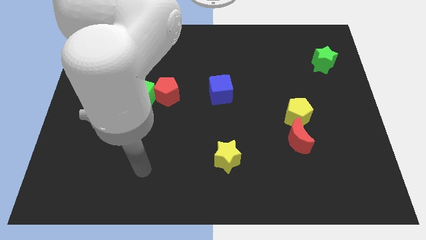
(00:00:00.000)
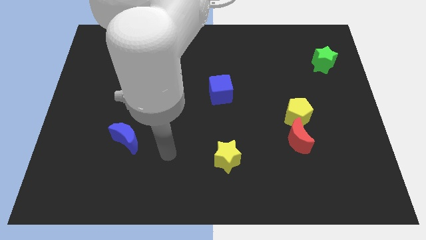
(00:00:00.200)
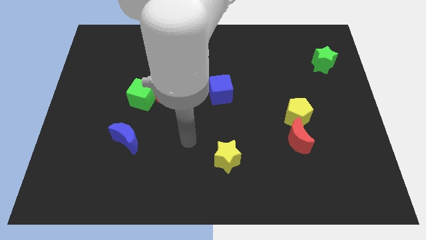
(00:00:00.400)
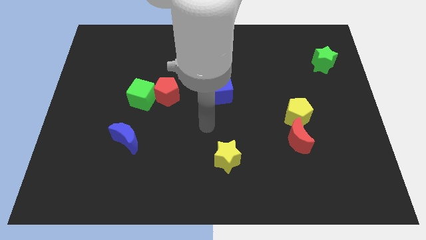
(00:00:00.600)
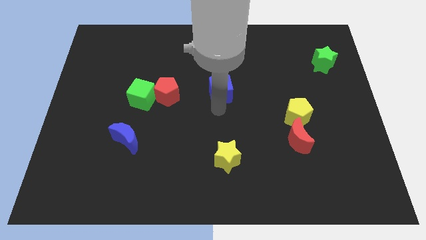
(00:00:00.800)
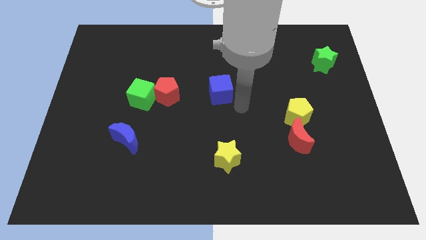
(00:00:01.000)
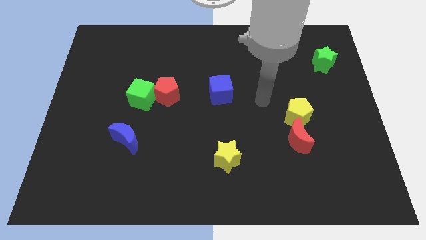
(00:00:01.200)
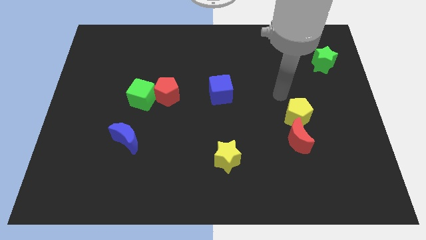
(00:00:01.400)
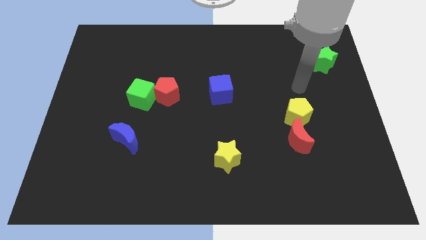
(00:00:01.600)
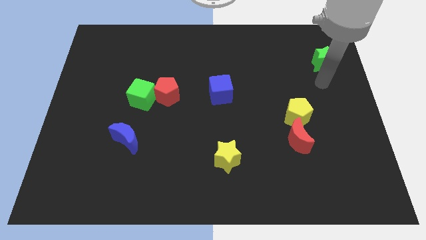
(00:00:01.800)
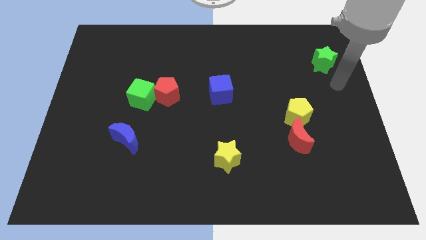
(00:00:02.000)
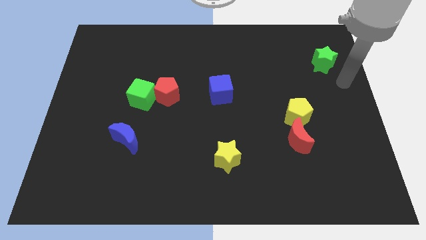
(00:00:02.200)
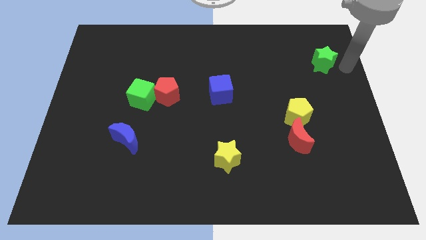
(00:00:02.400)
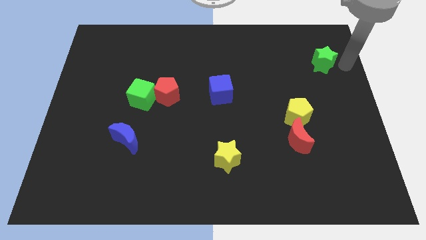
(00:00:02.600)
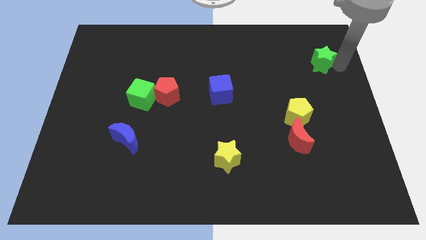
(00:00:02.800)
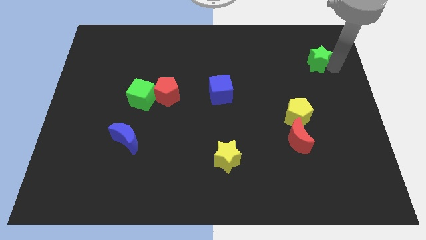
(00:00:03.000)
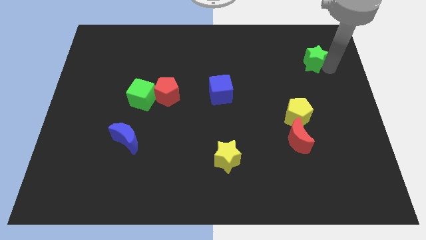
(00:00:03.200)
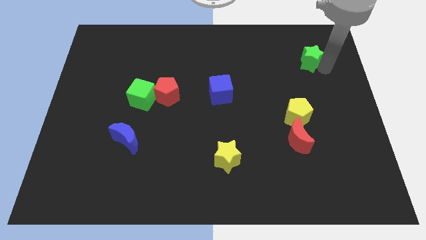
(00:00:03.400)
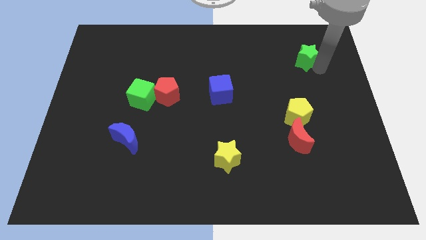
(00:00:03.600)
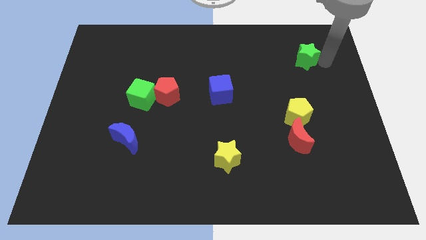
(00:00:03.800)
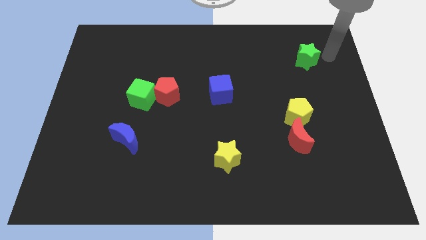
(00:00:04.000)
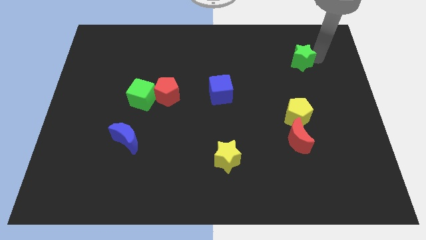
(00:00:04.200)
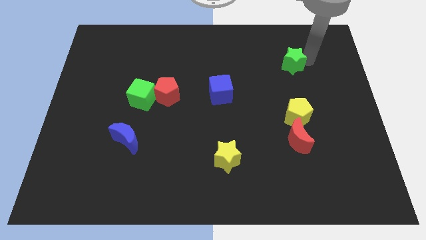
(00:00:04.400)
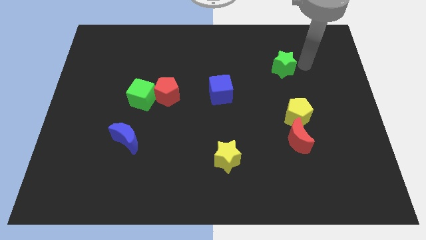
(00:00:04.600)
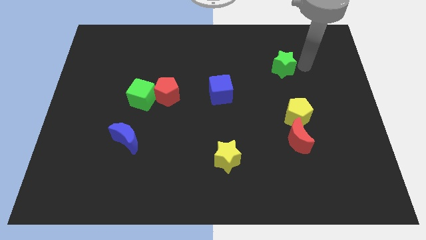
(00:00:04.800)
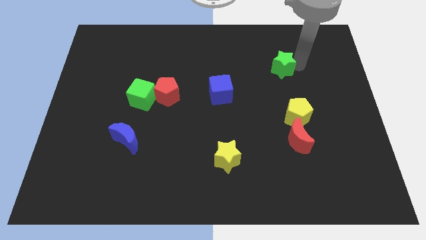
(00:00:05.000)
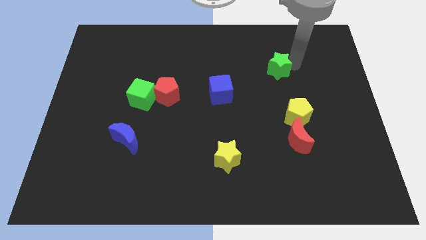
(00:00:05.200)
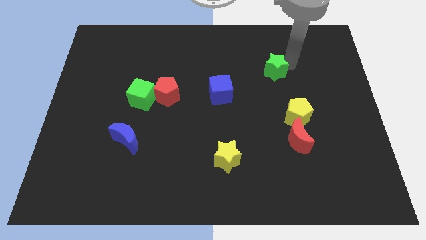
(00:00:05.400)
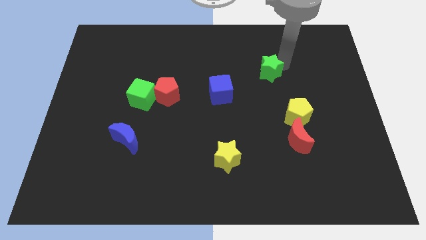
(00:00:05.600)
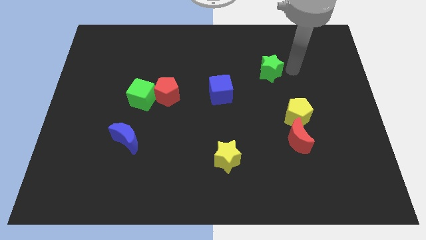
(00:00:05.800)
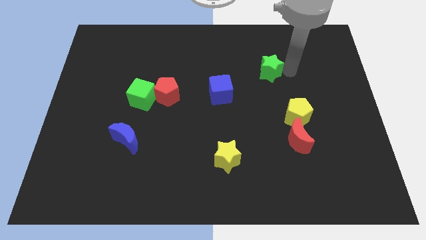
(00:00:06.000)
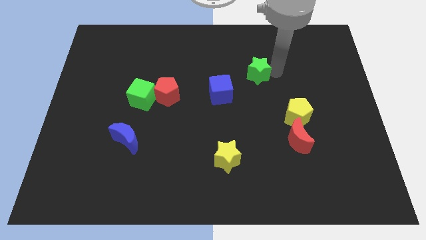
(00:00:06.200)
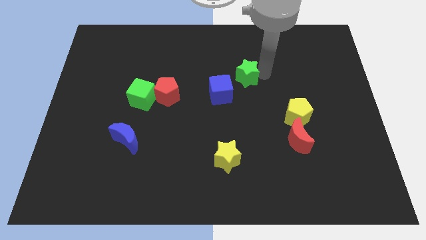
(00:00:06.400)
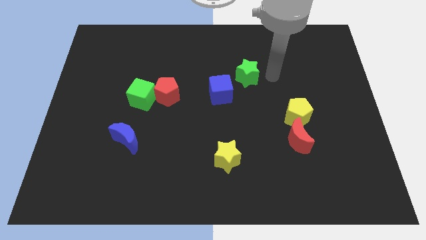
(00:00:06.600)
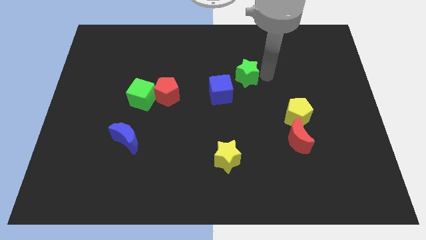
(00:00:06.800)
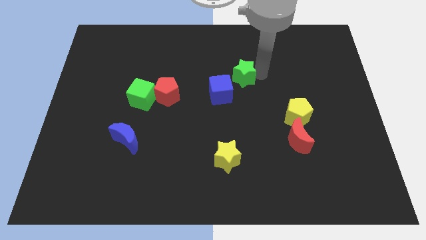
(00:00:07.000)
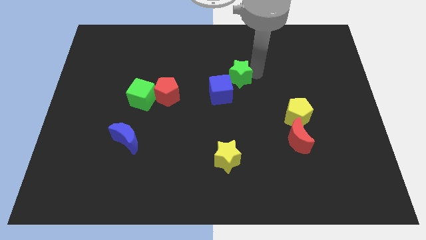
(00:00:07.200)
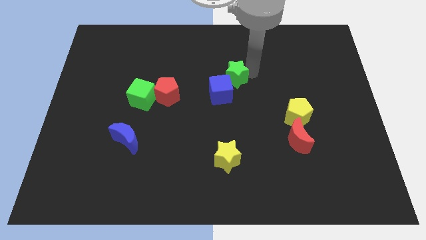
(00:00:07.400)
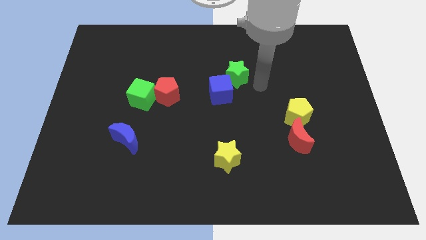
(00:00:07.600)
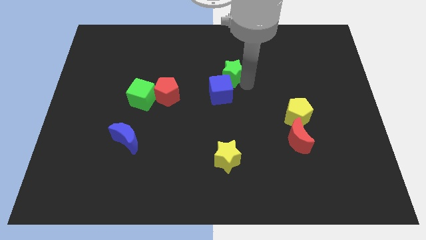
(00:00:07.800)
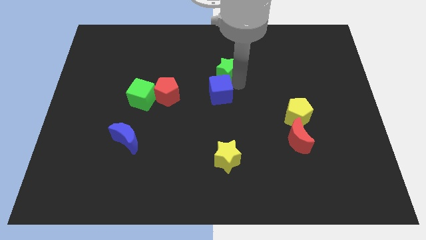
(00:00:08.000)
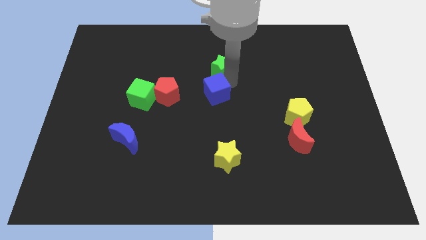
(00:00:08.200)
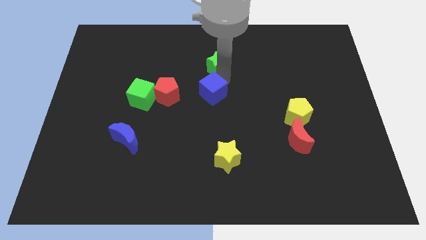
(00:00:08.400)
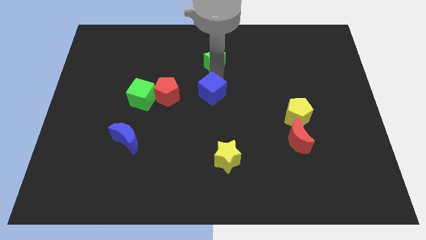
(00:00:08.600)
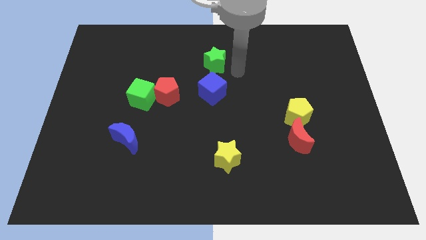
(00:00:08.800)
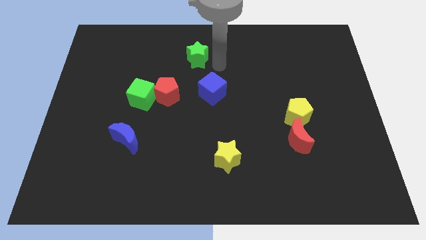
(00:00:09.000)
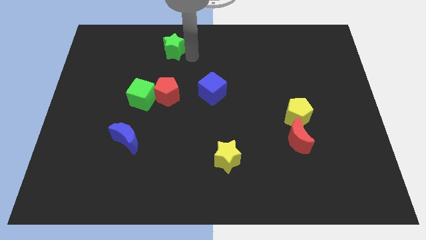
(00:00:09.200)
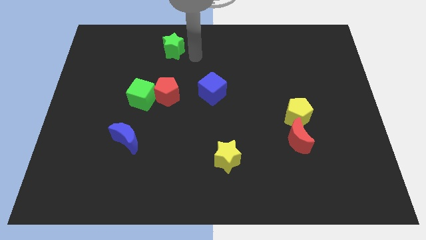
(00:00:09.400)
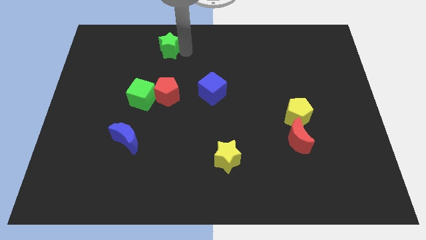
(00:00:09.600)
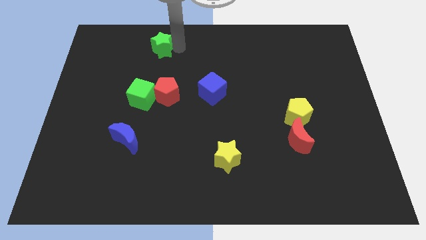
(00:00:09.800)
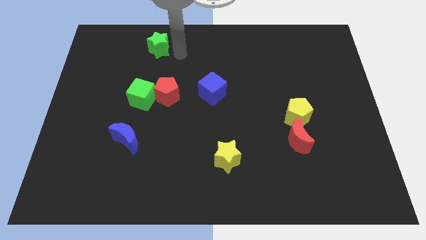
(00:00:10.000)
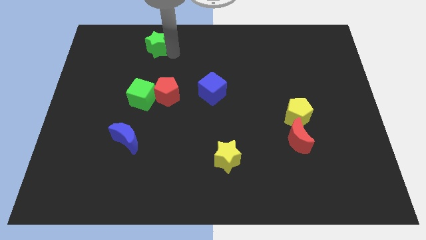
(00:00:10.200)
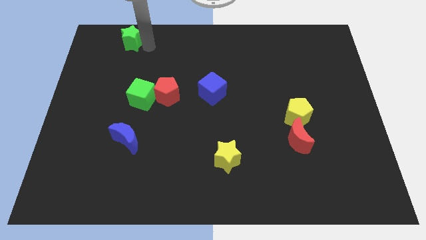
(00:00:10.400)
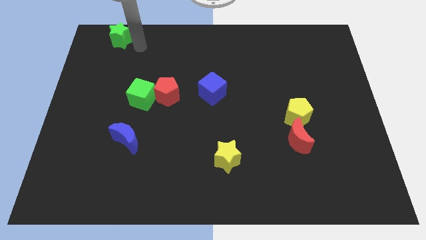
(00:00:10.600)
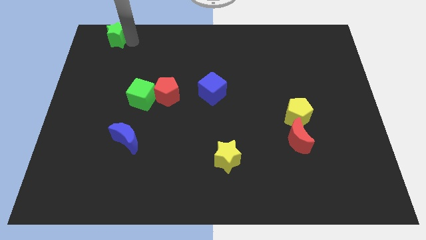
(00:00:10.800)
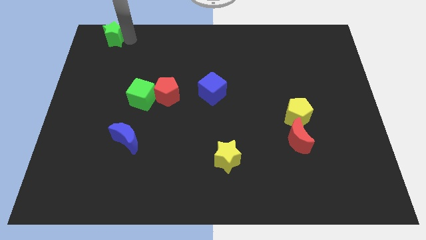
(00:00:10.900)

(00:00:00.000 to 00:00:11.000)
put the green star to the top left corner
